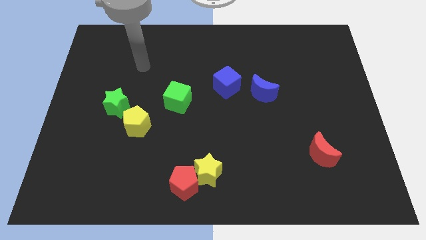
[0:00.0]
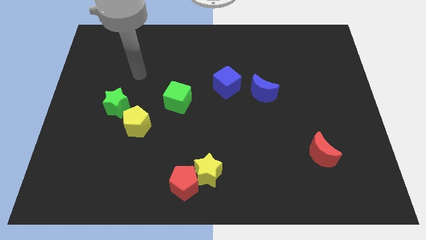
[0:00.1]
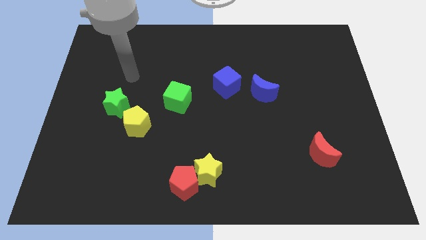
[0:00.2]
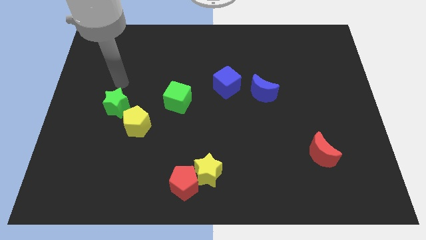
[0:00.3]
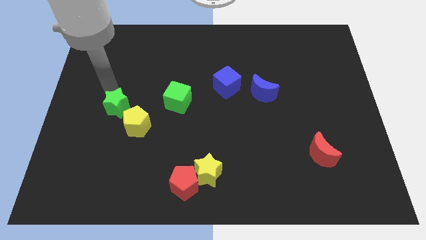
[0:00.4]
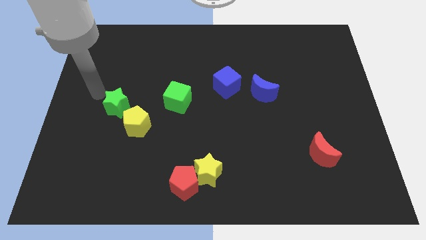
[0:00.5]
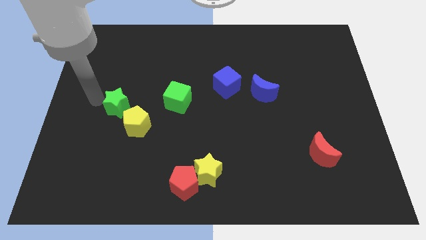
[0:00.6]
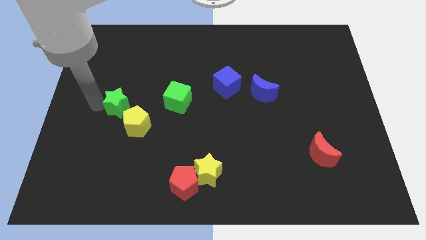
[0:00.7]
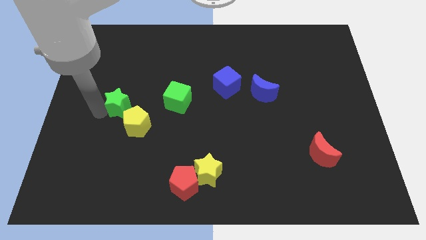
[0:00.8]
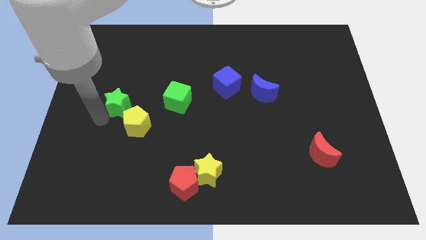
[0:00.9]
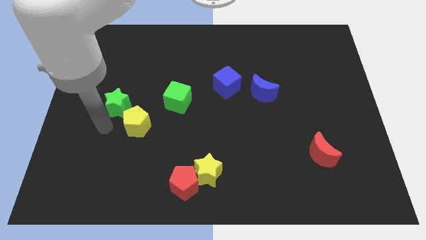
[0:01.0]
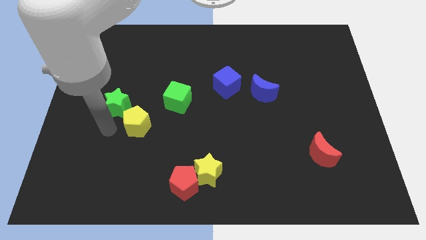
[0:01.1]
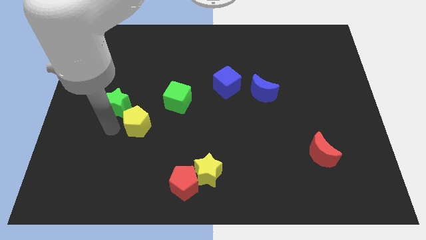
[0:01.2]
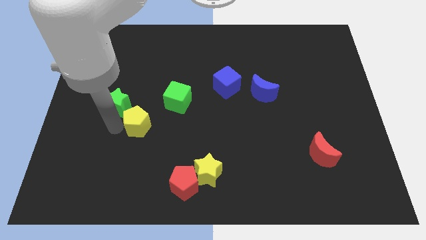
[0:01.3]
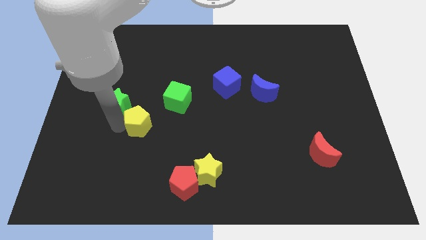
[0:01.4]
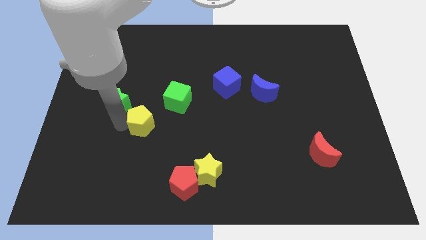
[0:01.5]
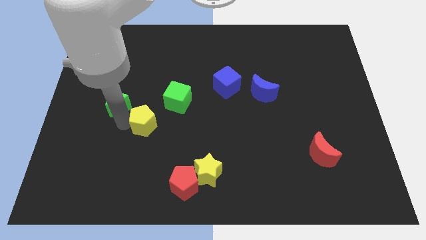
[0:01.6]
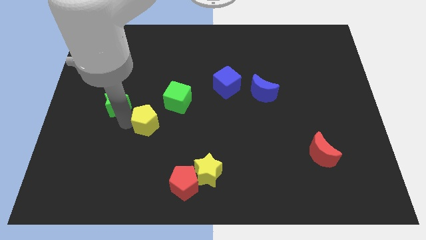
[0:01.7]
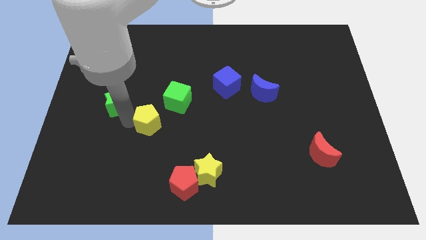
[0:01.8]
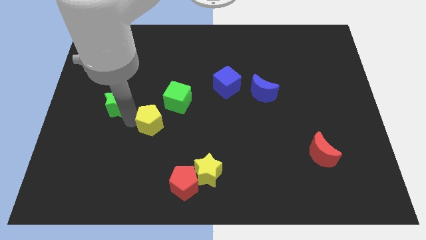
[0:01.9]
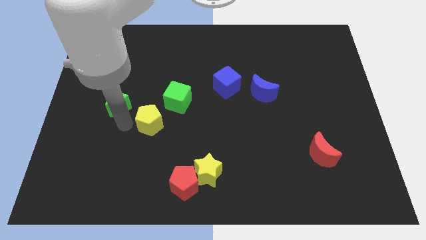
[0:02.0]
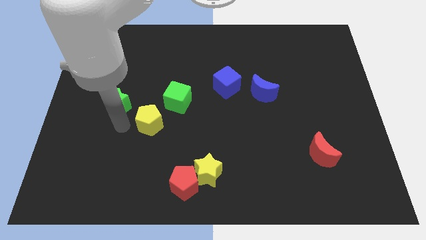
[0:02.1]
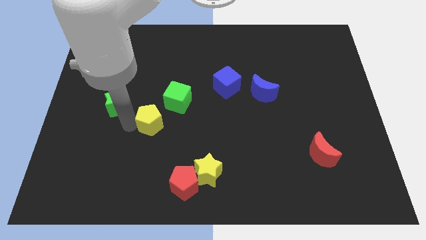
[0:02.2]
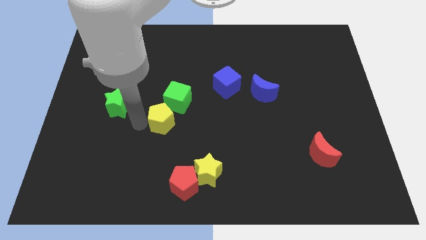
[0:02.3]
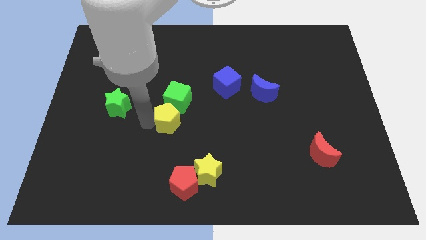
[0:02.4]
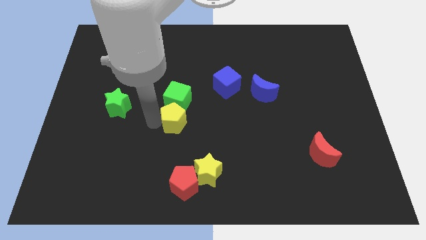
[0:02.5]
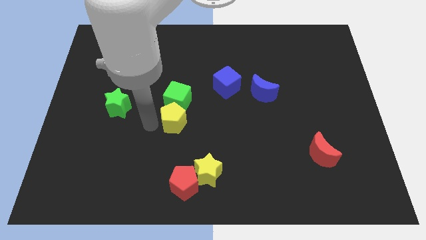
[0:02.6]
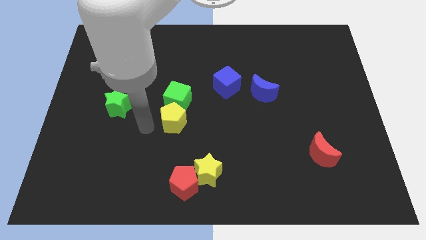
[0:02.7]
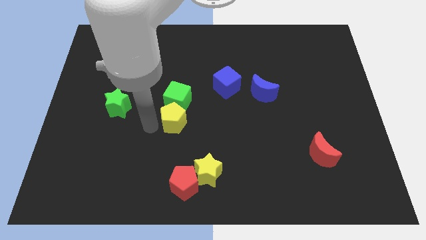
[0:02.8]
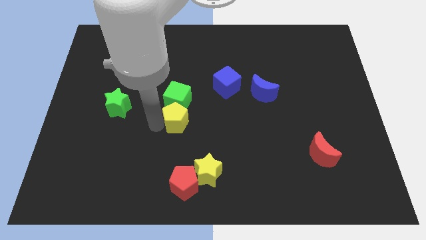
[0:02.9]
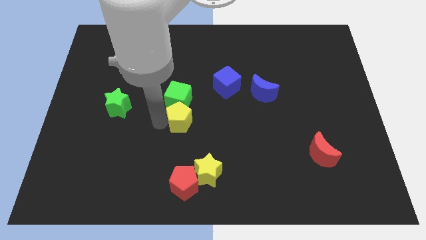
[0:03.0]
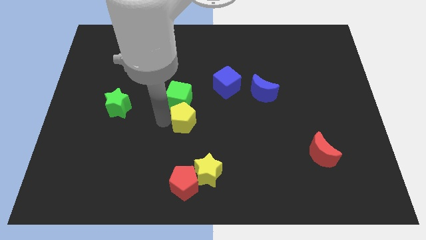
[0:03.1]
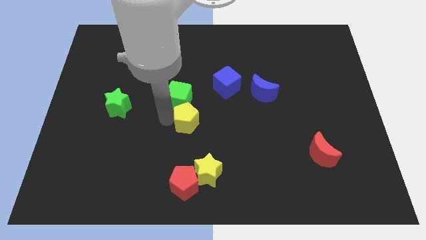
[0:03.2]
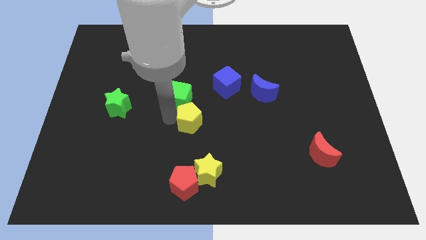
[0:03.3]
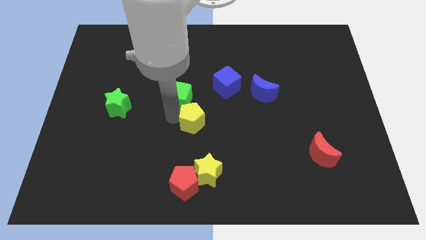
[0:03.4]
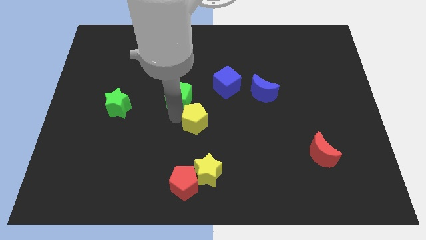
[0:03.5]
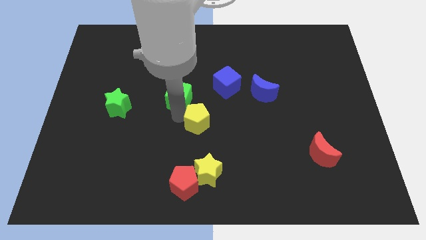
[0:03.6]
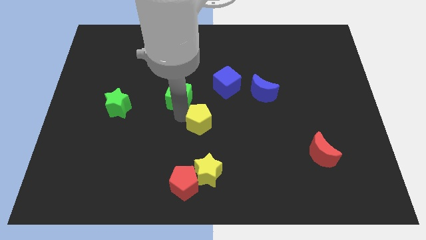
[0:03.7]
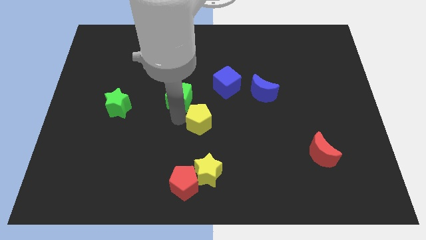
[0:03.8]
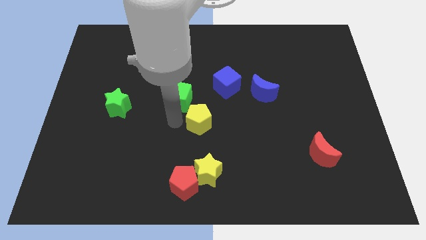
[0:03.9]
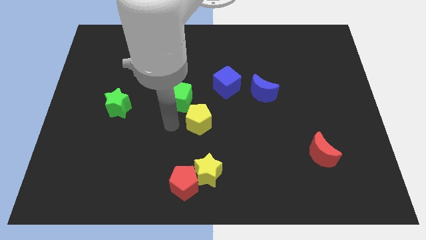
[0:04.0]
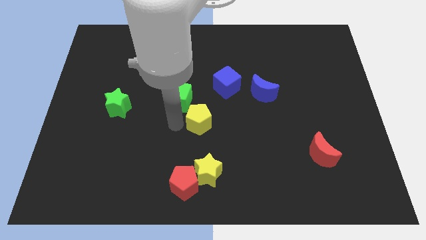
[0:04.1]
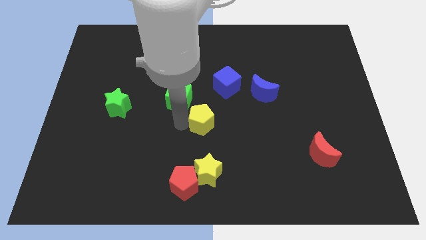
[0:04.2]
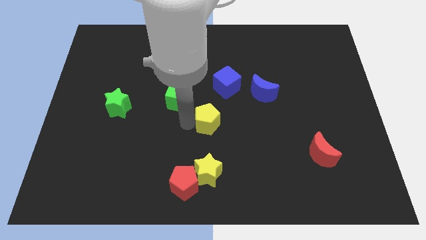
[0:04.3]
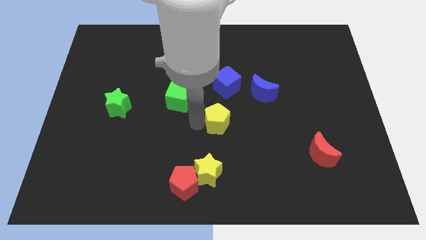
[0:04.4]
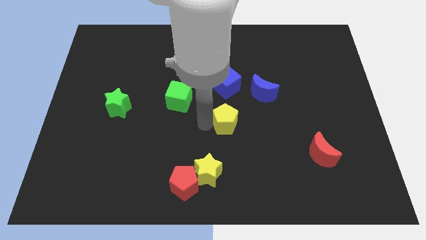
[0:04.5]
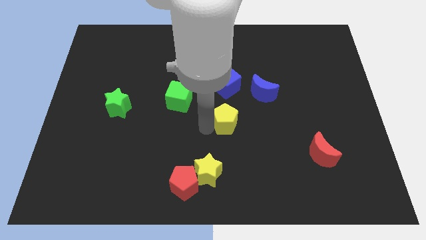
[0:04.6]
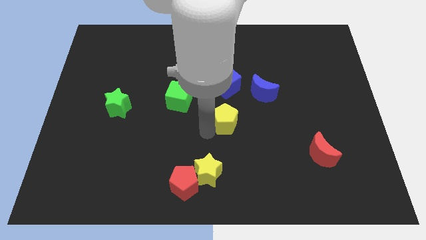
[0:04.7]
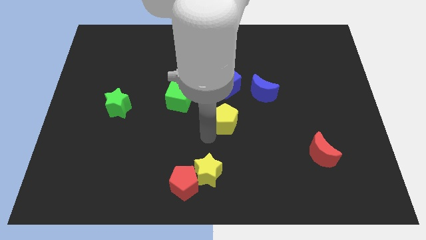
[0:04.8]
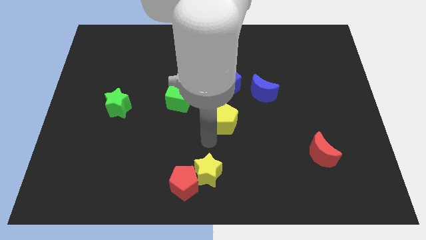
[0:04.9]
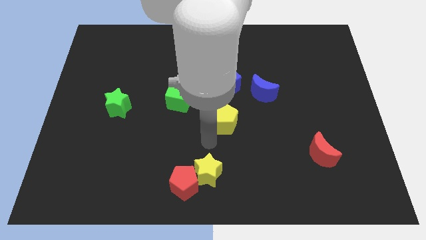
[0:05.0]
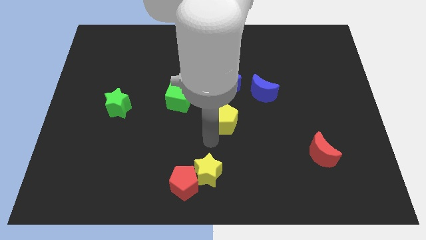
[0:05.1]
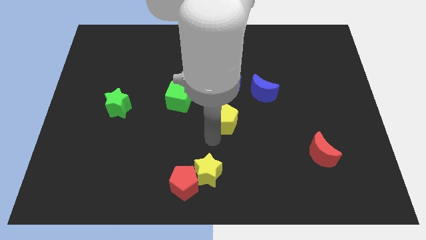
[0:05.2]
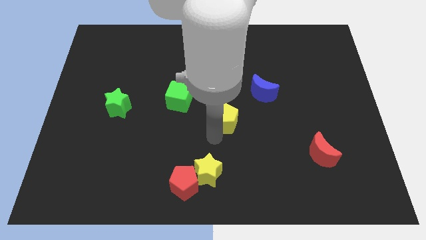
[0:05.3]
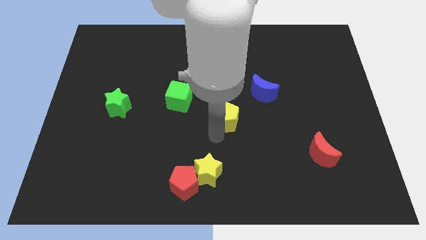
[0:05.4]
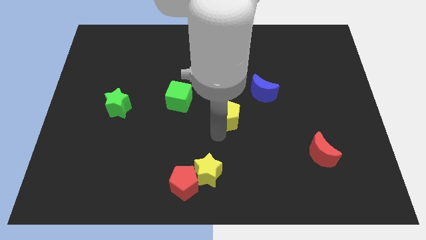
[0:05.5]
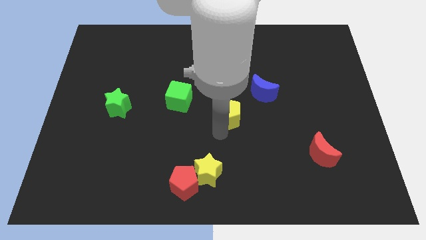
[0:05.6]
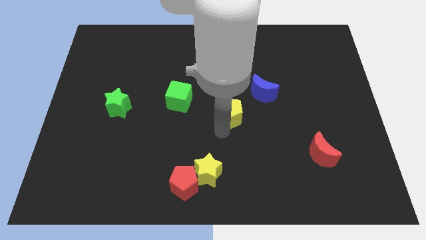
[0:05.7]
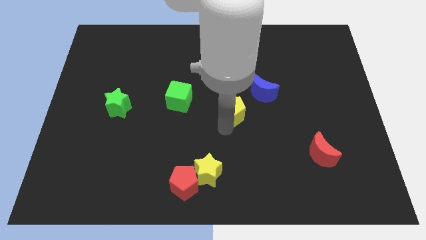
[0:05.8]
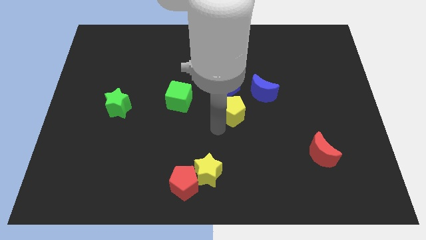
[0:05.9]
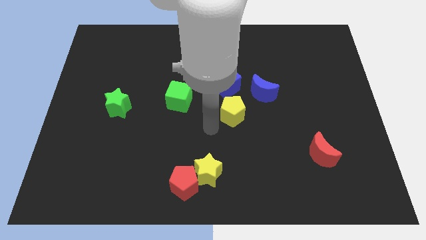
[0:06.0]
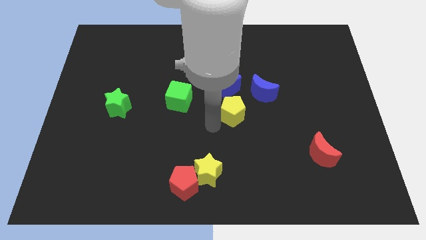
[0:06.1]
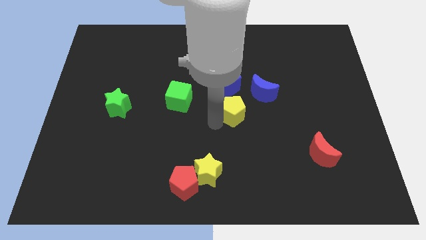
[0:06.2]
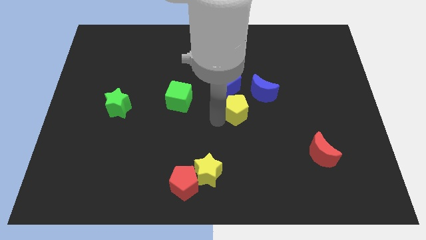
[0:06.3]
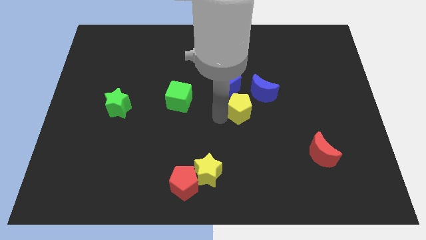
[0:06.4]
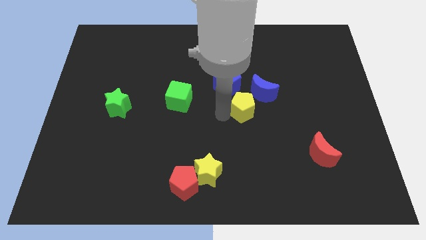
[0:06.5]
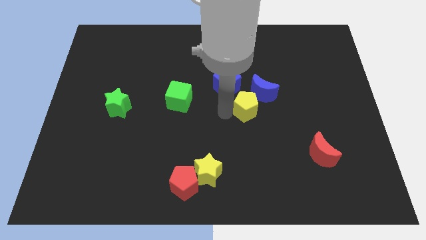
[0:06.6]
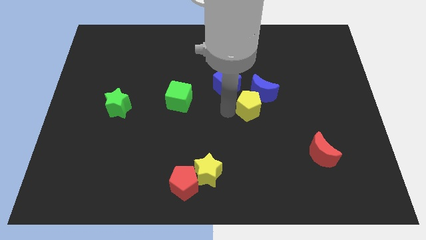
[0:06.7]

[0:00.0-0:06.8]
slide the yellow pentagon close to the blue moon

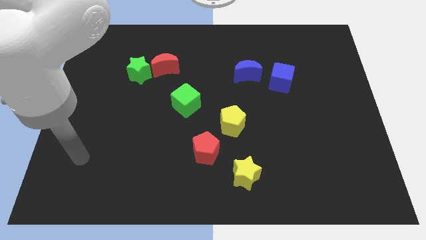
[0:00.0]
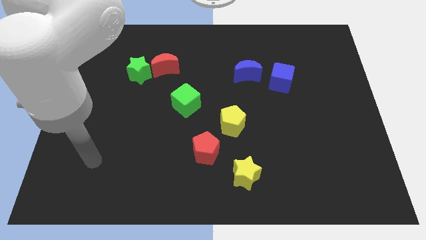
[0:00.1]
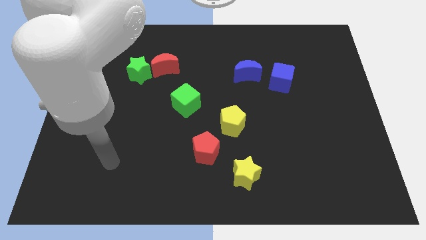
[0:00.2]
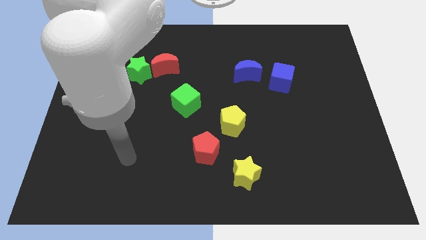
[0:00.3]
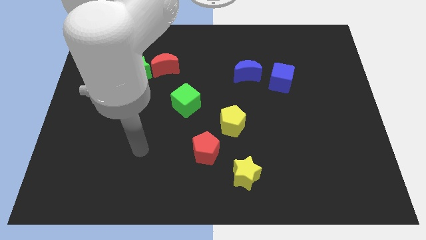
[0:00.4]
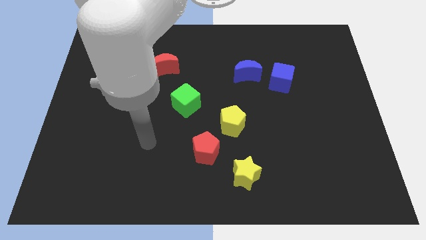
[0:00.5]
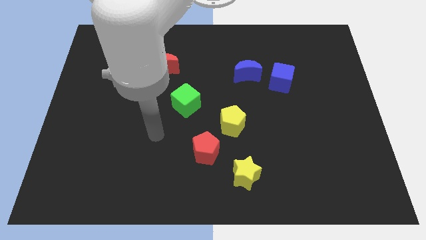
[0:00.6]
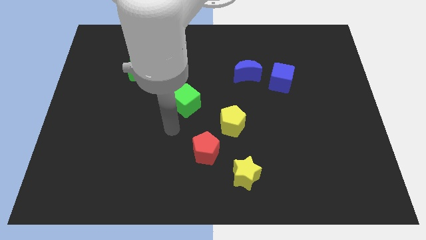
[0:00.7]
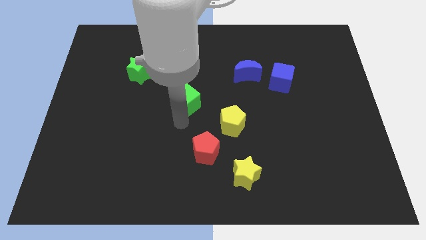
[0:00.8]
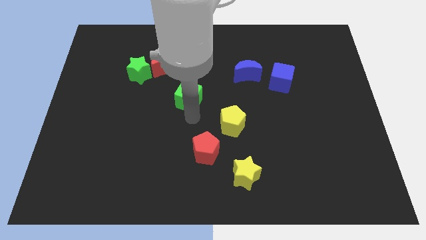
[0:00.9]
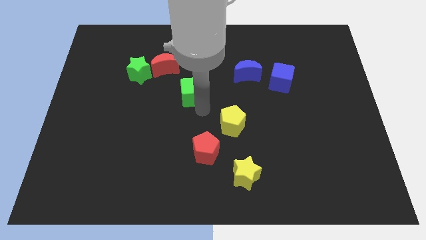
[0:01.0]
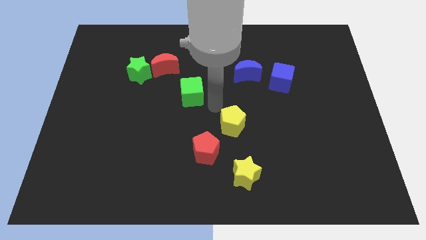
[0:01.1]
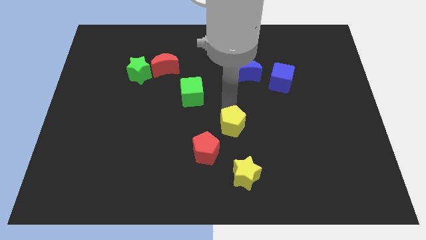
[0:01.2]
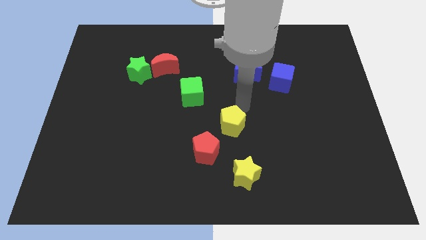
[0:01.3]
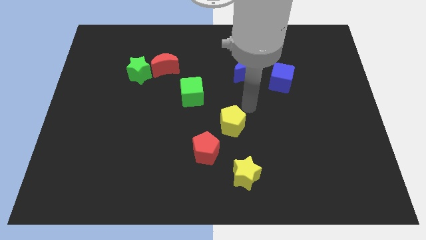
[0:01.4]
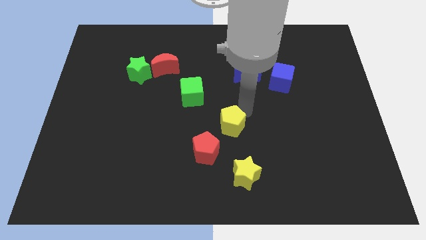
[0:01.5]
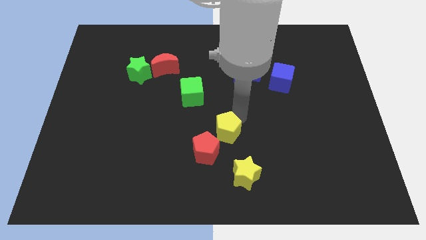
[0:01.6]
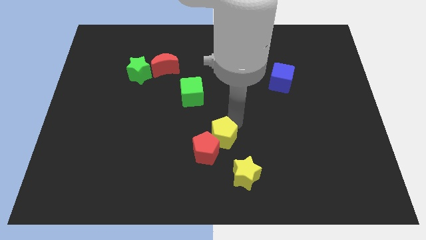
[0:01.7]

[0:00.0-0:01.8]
slide the yellow pentagon towards the red pentagon
